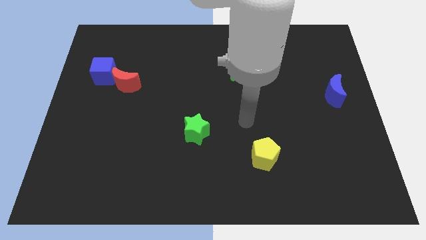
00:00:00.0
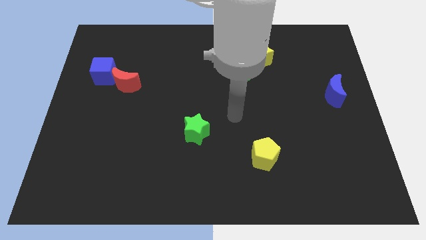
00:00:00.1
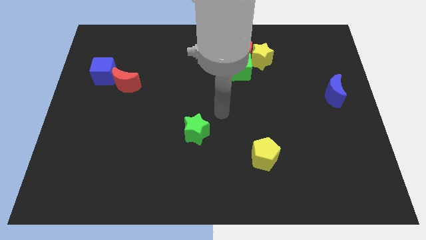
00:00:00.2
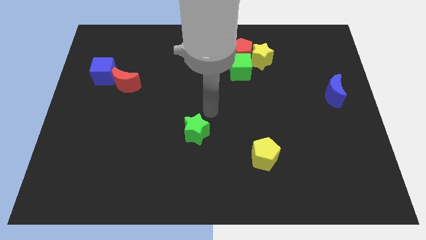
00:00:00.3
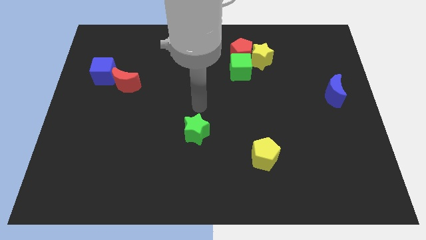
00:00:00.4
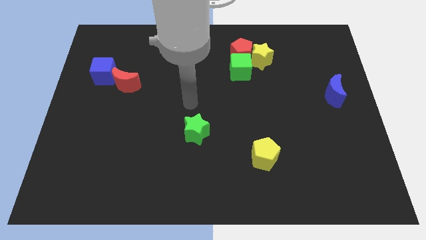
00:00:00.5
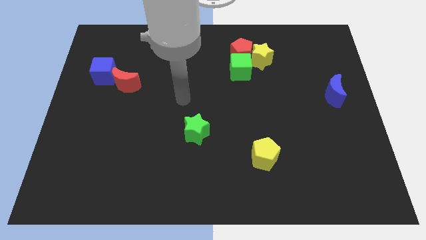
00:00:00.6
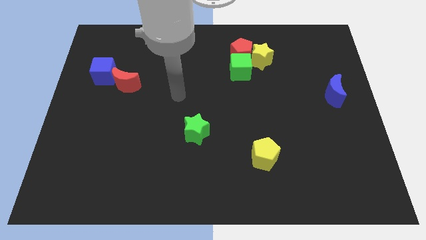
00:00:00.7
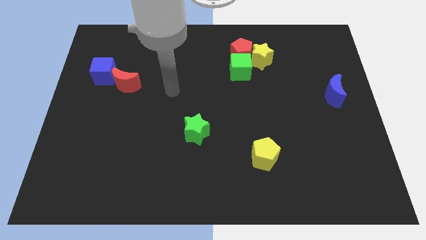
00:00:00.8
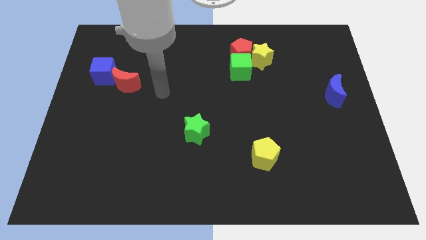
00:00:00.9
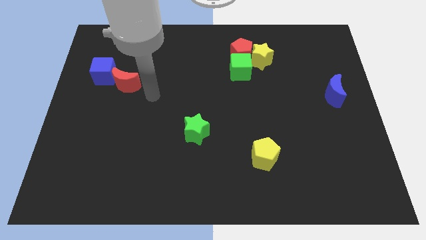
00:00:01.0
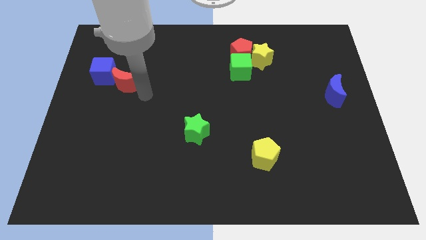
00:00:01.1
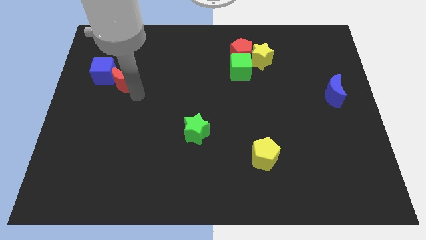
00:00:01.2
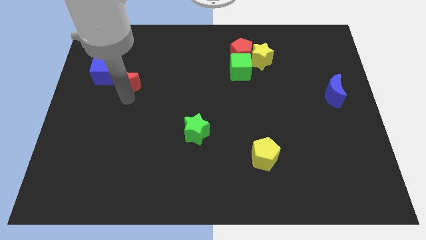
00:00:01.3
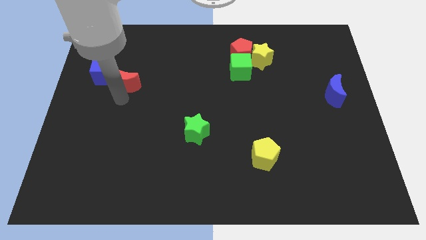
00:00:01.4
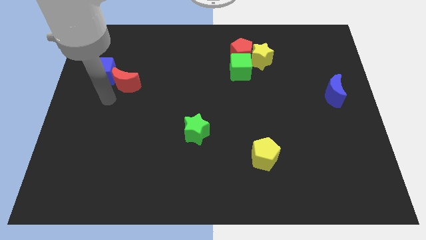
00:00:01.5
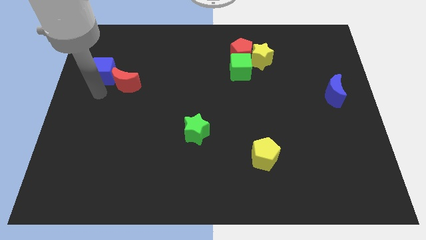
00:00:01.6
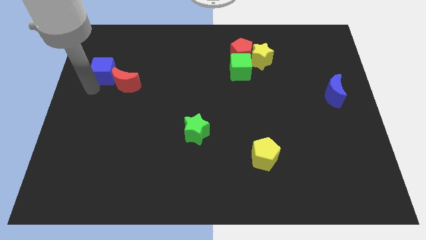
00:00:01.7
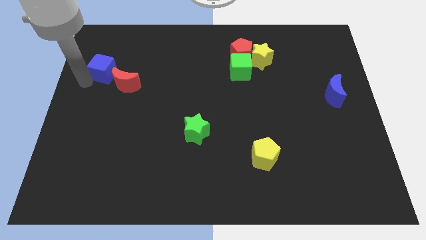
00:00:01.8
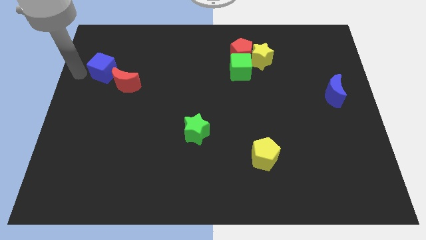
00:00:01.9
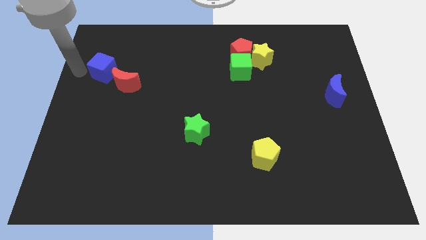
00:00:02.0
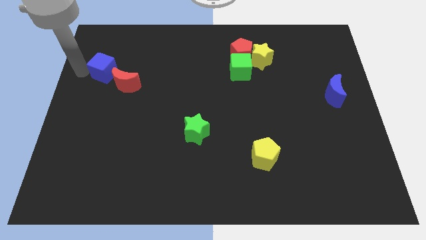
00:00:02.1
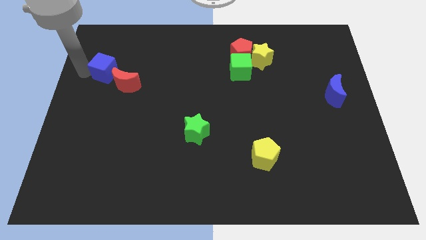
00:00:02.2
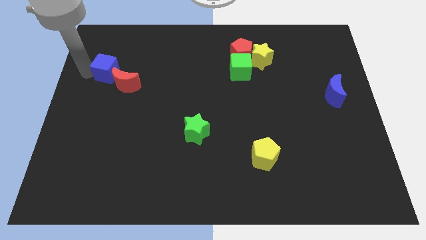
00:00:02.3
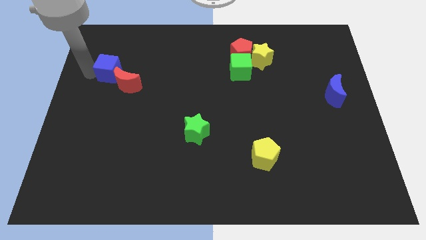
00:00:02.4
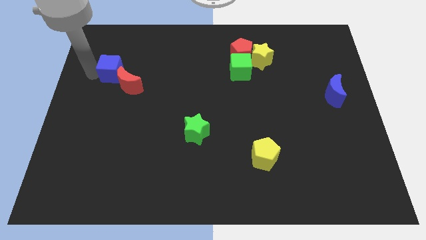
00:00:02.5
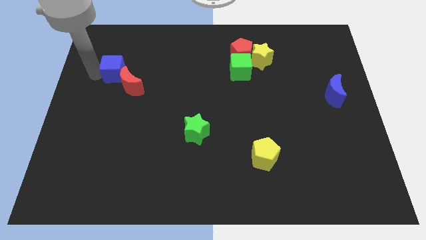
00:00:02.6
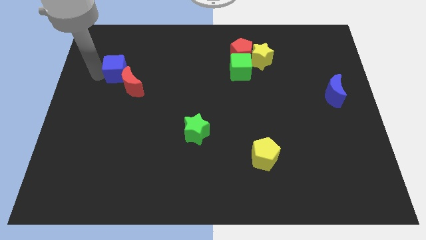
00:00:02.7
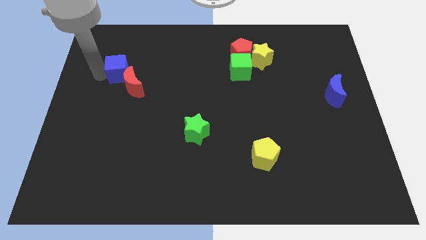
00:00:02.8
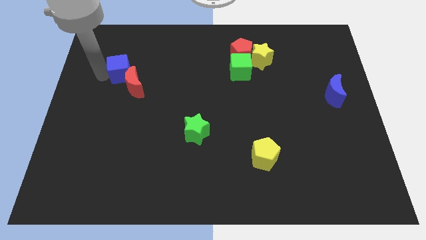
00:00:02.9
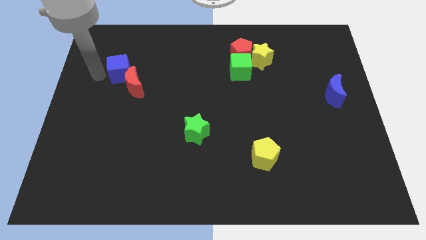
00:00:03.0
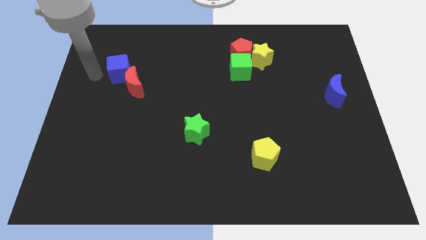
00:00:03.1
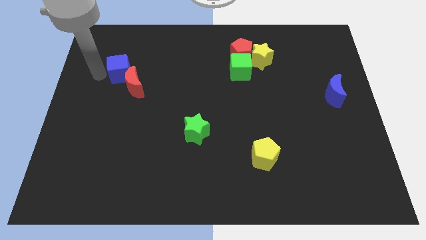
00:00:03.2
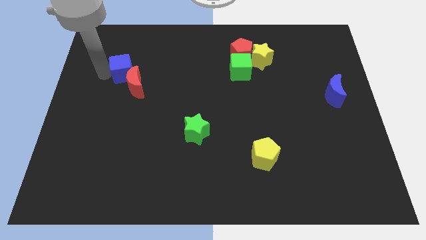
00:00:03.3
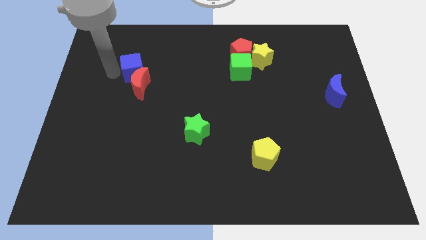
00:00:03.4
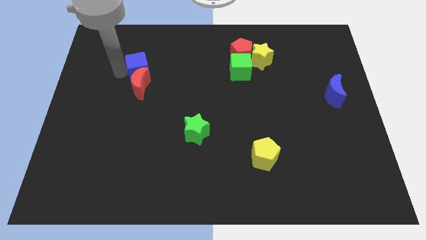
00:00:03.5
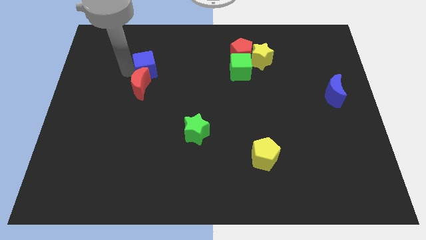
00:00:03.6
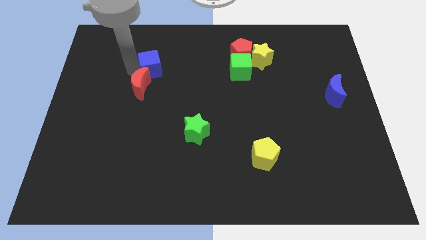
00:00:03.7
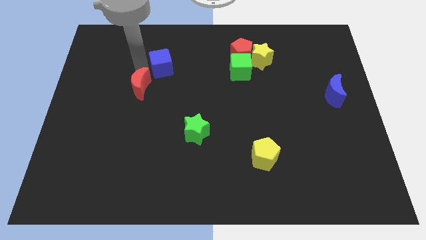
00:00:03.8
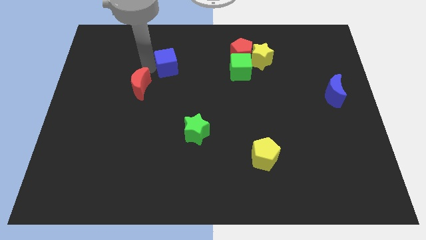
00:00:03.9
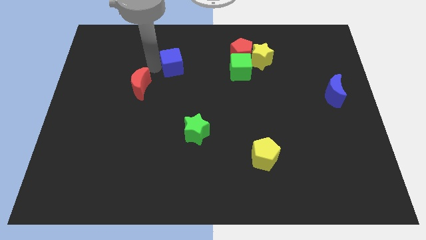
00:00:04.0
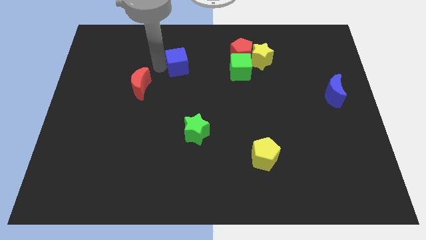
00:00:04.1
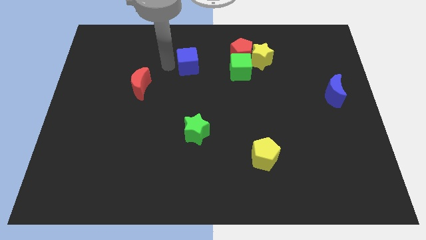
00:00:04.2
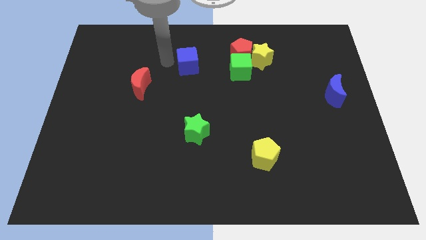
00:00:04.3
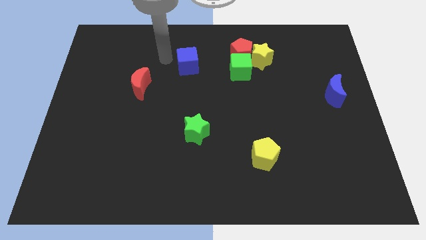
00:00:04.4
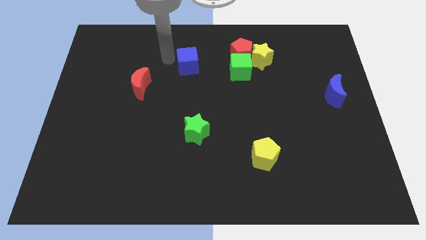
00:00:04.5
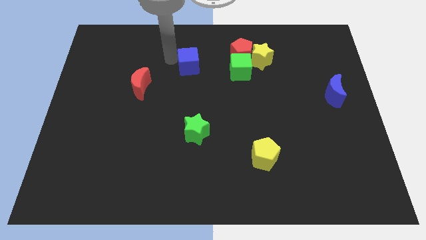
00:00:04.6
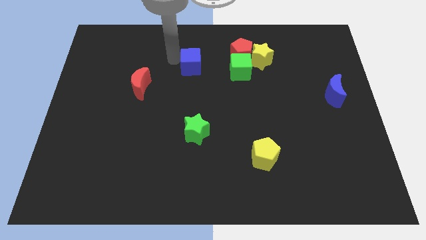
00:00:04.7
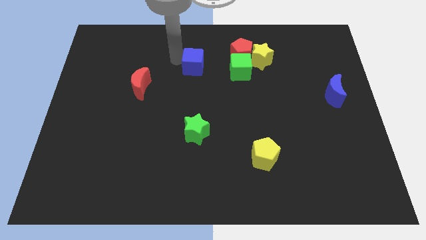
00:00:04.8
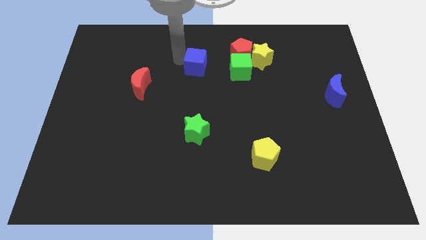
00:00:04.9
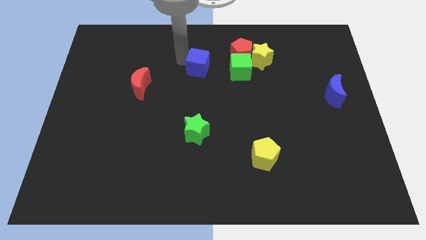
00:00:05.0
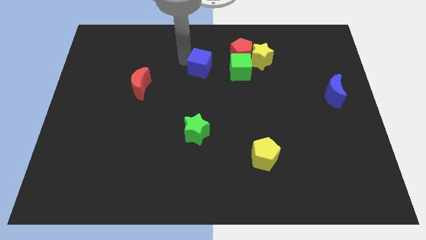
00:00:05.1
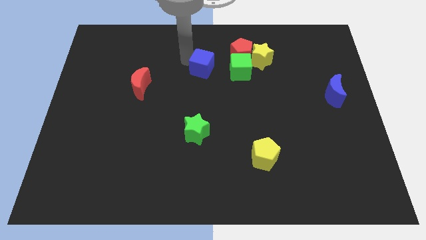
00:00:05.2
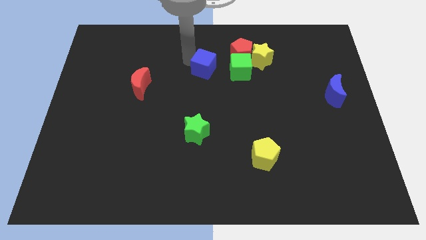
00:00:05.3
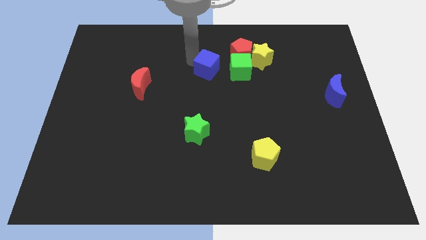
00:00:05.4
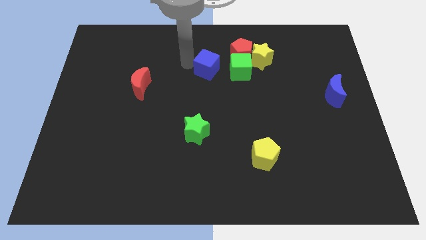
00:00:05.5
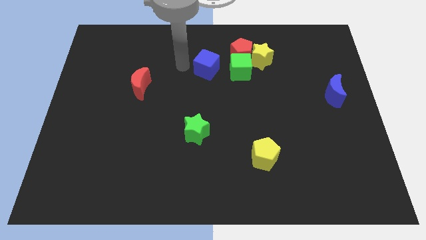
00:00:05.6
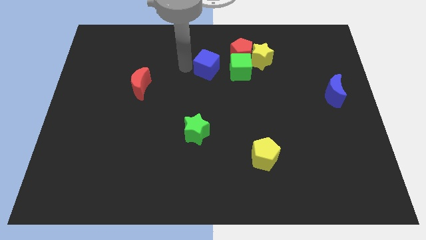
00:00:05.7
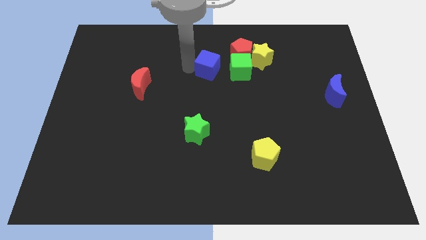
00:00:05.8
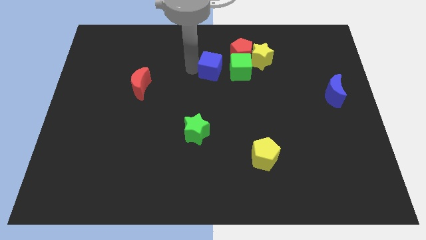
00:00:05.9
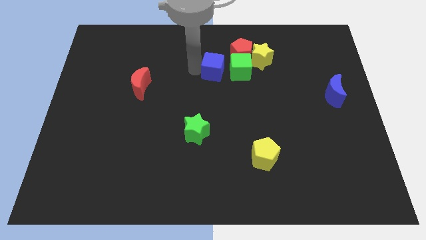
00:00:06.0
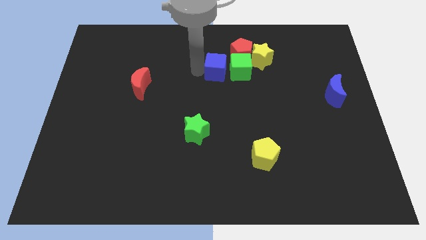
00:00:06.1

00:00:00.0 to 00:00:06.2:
push the blue cube towards the green cube

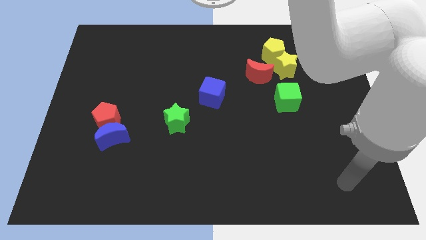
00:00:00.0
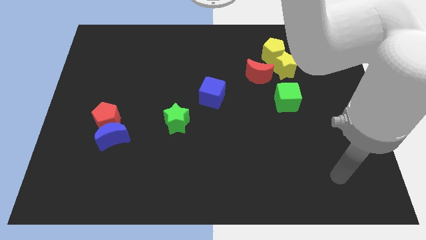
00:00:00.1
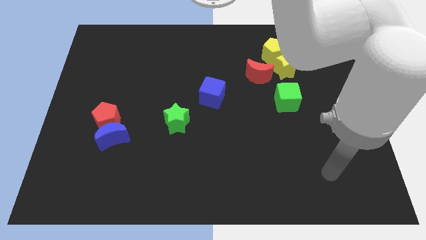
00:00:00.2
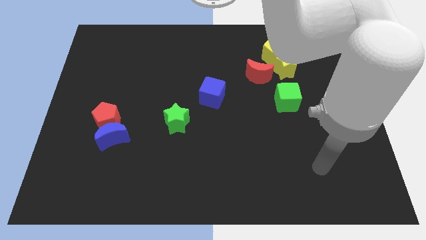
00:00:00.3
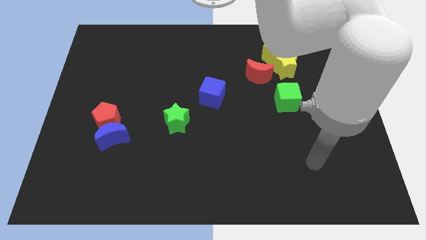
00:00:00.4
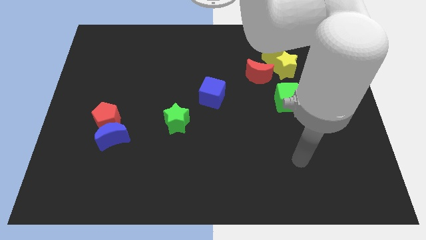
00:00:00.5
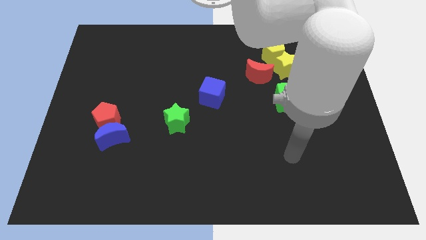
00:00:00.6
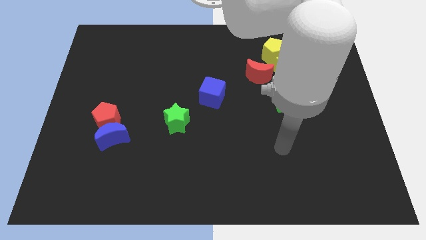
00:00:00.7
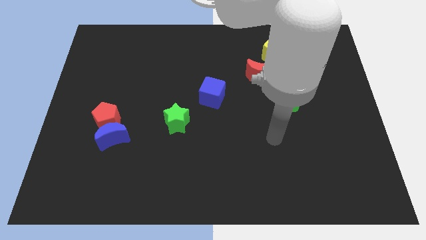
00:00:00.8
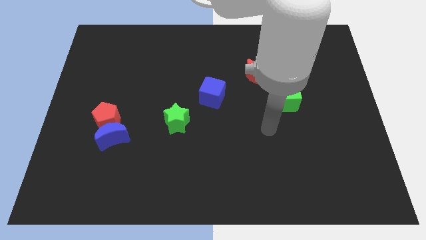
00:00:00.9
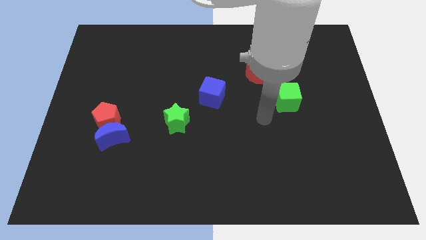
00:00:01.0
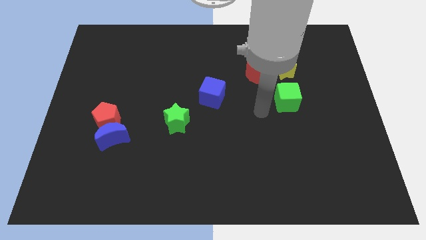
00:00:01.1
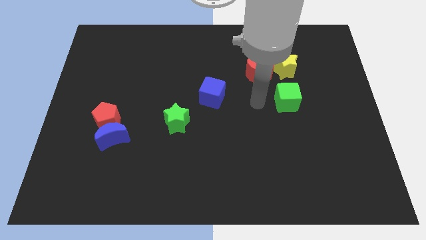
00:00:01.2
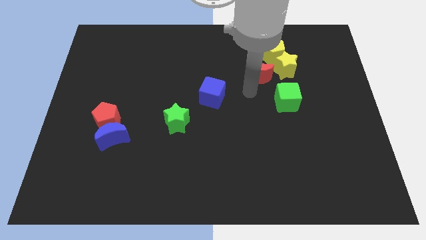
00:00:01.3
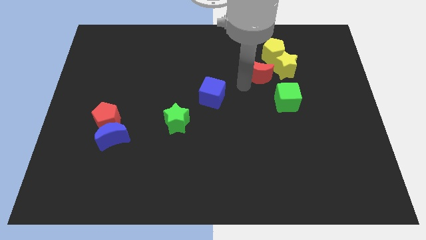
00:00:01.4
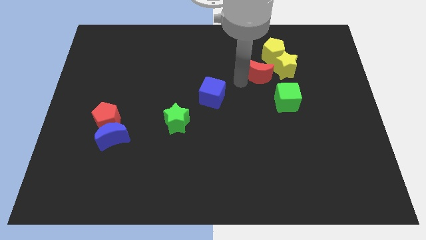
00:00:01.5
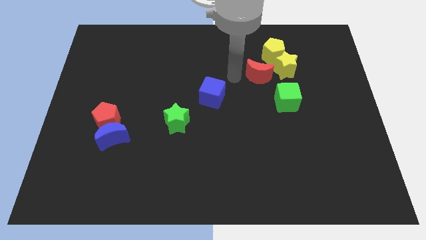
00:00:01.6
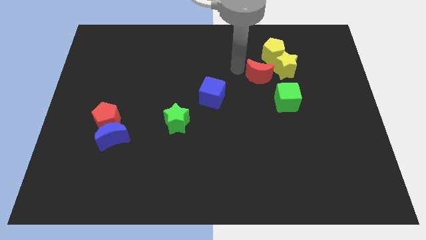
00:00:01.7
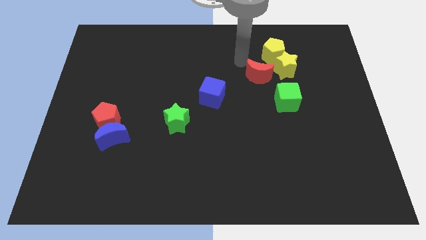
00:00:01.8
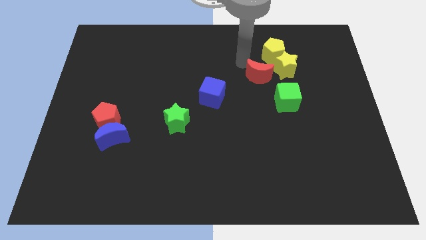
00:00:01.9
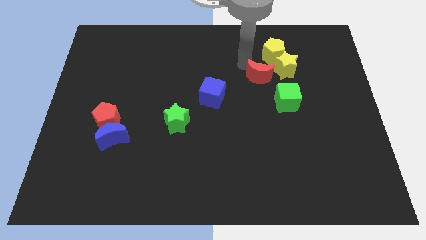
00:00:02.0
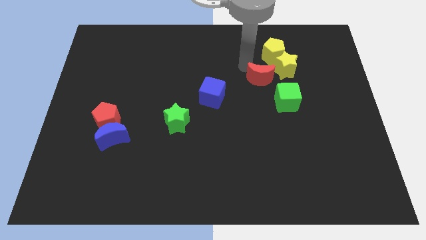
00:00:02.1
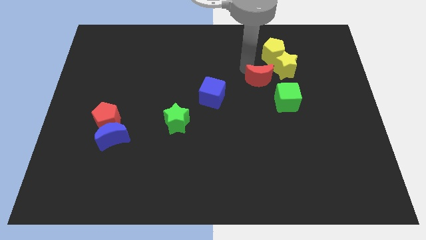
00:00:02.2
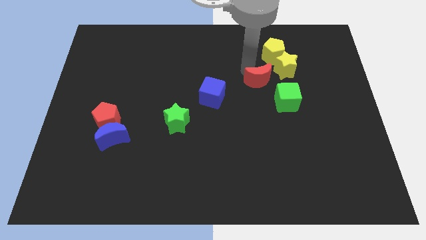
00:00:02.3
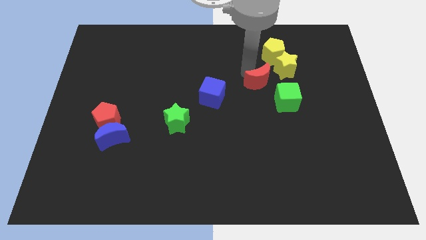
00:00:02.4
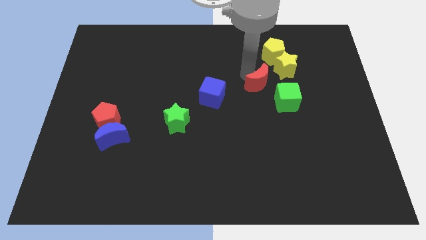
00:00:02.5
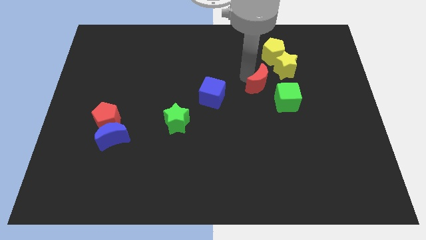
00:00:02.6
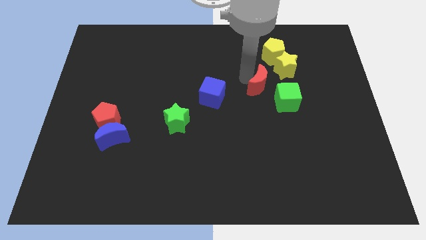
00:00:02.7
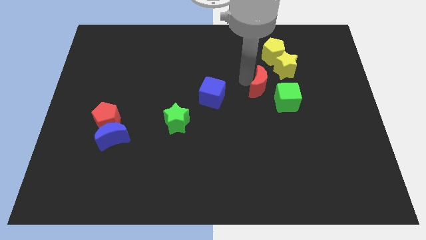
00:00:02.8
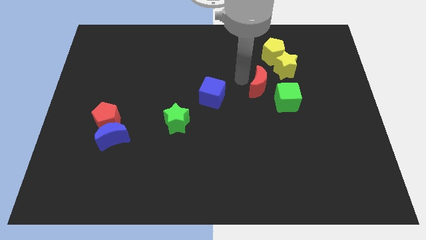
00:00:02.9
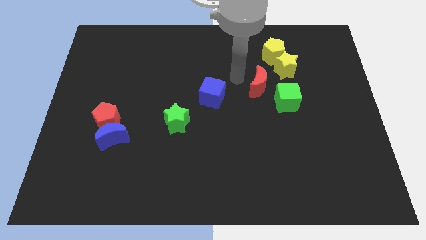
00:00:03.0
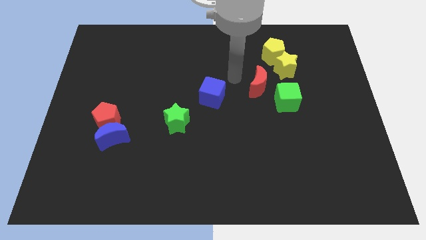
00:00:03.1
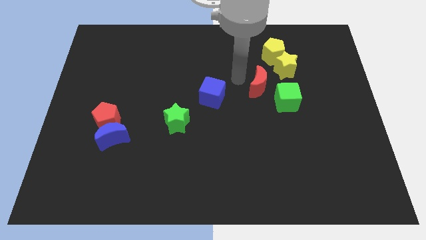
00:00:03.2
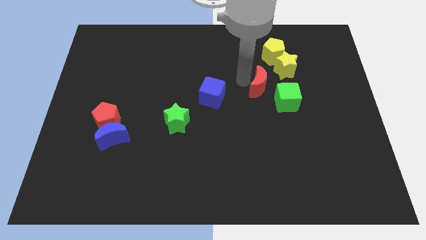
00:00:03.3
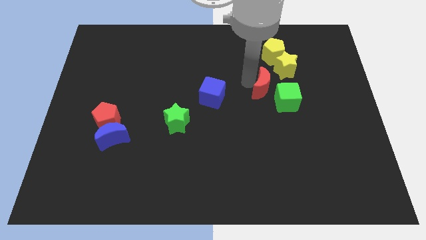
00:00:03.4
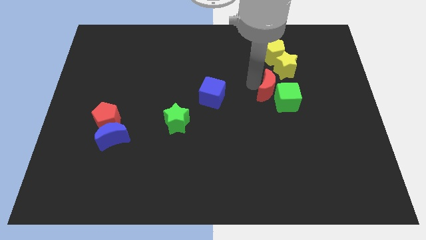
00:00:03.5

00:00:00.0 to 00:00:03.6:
move the red moon towards the green cube
